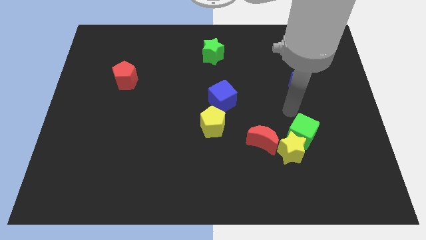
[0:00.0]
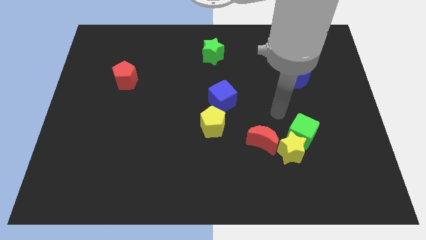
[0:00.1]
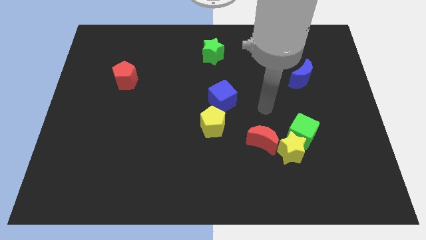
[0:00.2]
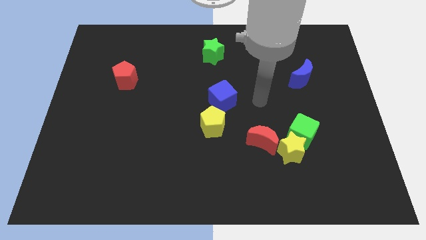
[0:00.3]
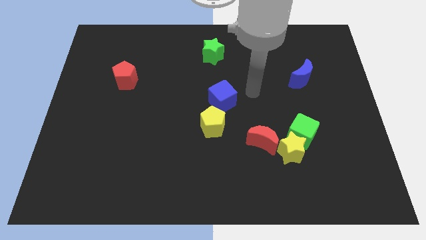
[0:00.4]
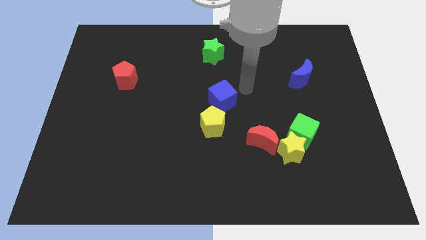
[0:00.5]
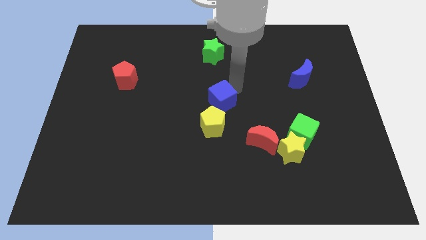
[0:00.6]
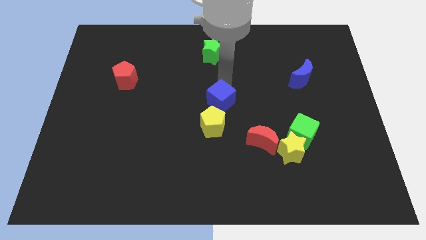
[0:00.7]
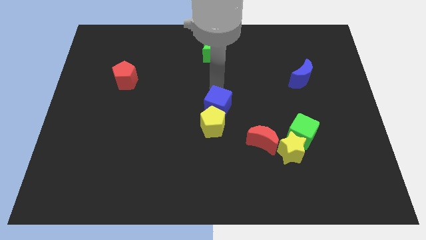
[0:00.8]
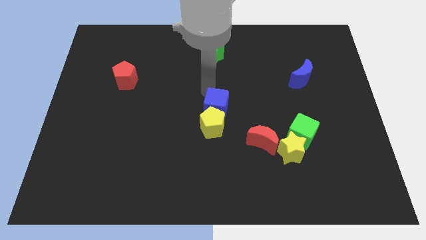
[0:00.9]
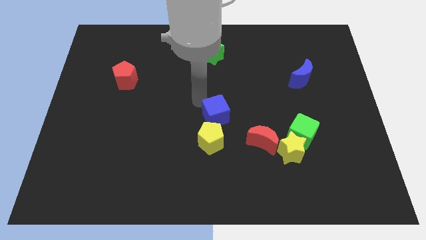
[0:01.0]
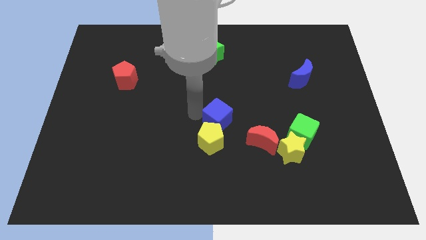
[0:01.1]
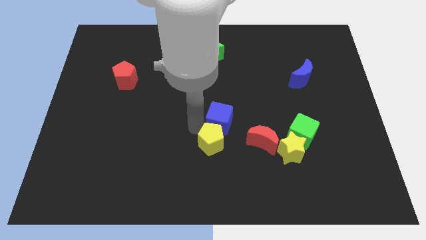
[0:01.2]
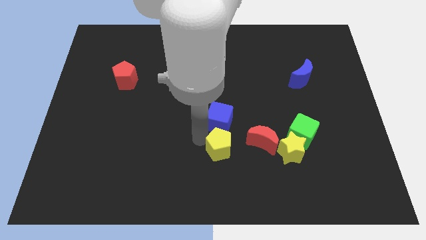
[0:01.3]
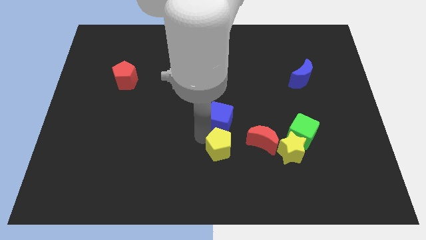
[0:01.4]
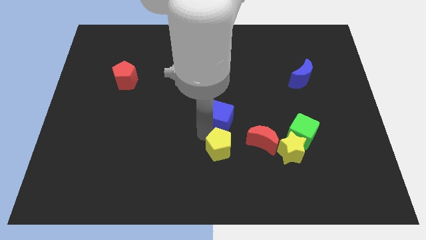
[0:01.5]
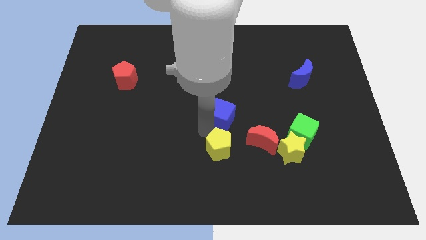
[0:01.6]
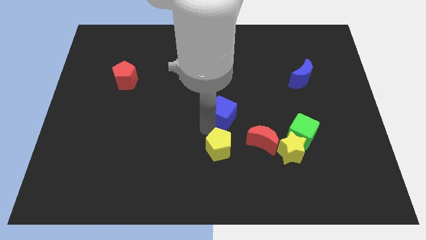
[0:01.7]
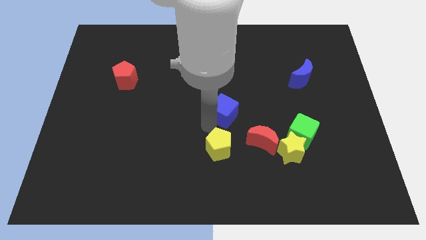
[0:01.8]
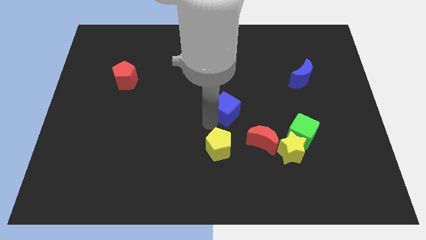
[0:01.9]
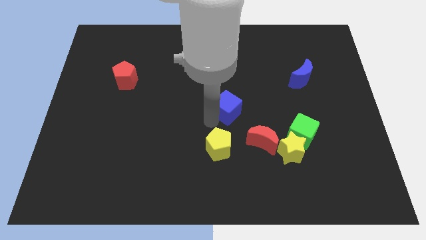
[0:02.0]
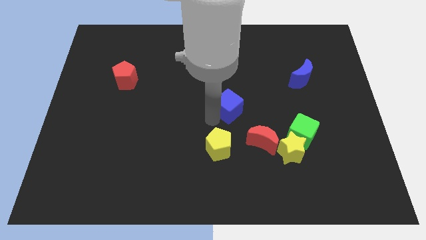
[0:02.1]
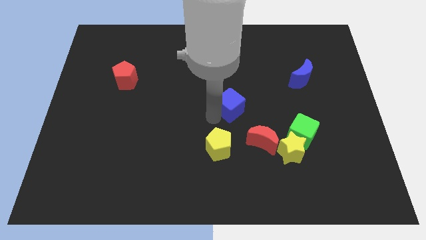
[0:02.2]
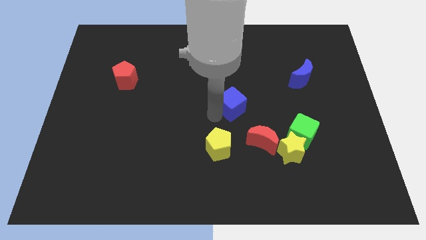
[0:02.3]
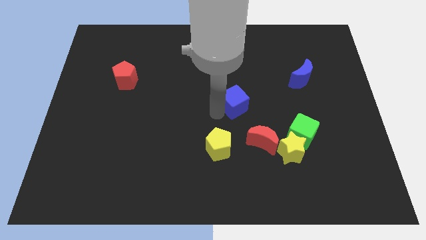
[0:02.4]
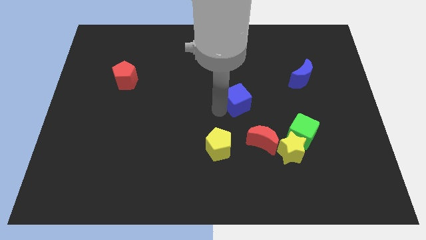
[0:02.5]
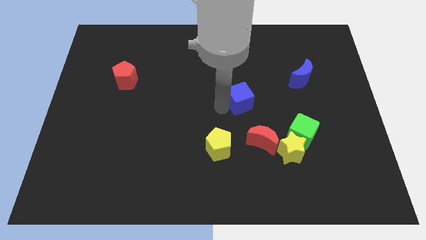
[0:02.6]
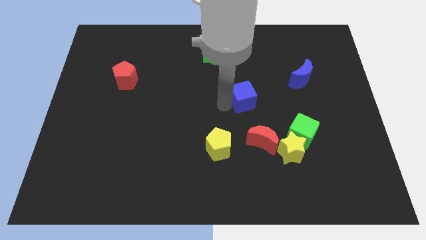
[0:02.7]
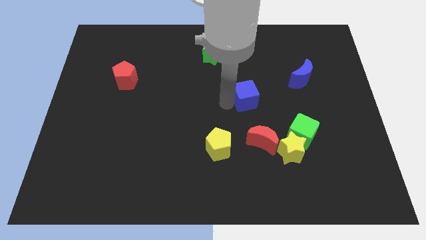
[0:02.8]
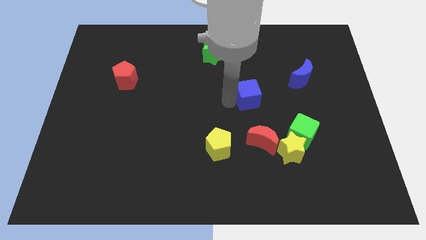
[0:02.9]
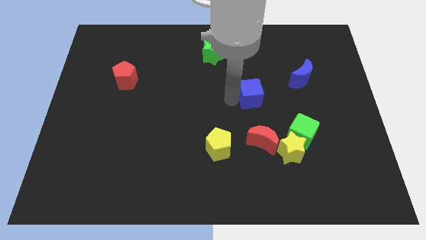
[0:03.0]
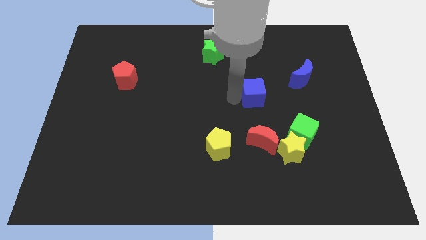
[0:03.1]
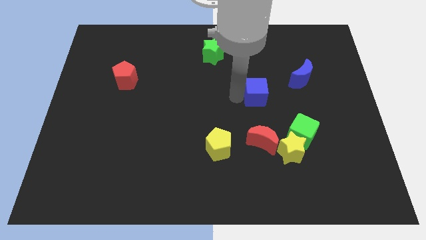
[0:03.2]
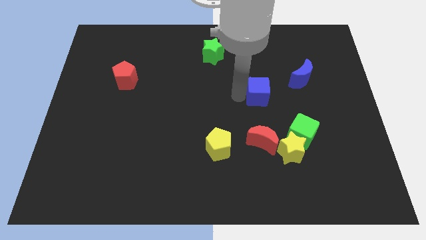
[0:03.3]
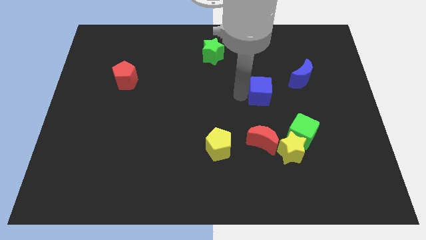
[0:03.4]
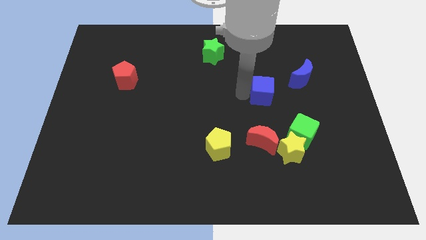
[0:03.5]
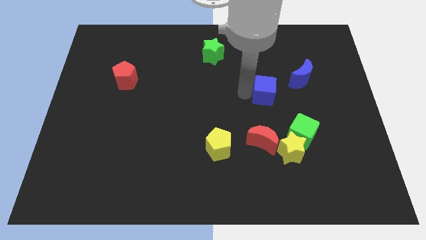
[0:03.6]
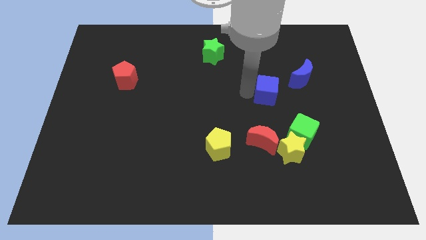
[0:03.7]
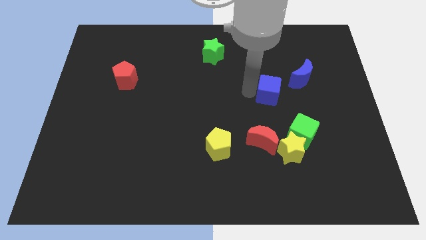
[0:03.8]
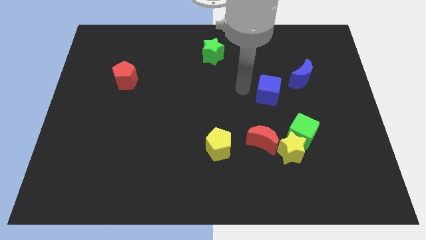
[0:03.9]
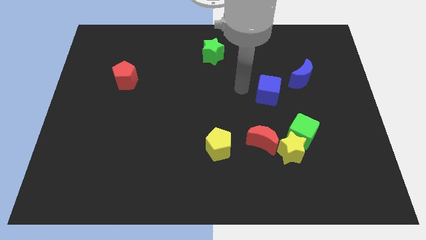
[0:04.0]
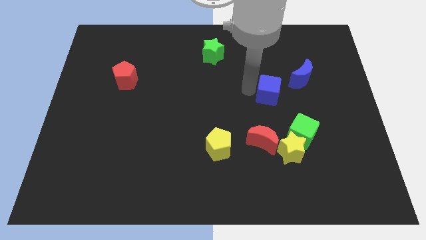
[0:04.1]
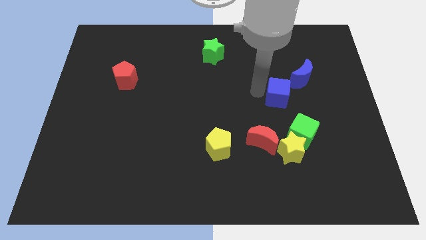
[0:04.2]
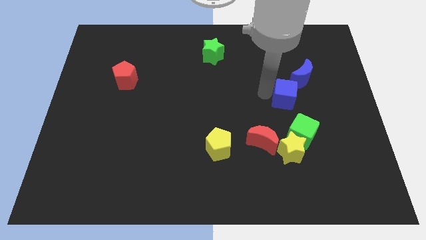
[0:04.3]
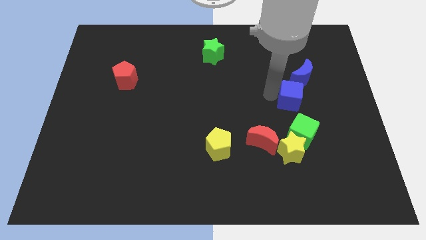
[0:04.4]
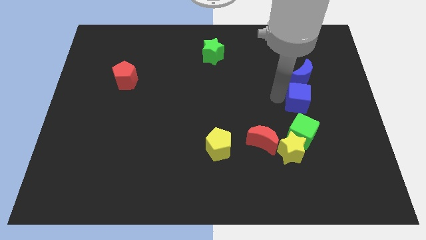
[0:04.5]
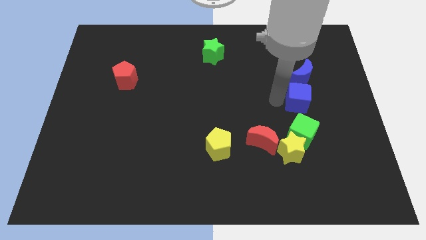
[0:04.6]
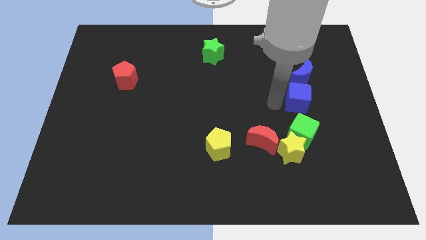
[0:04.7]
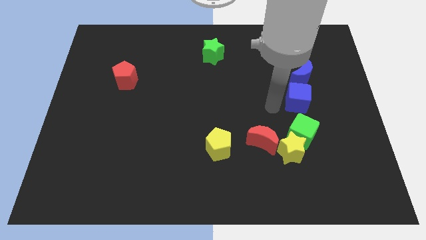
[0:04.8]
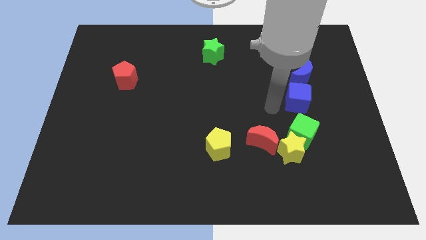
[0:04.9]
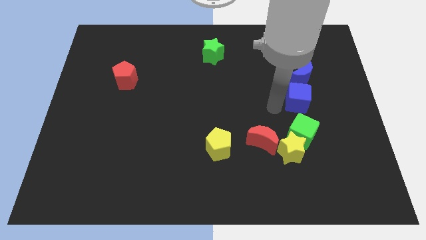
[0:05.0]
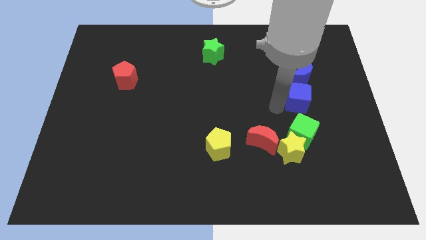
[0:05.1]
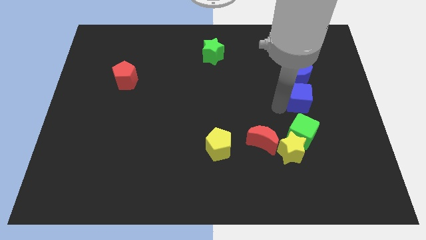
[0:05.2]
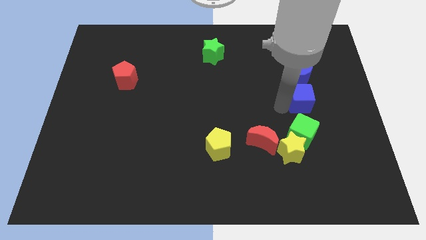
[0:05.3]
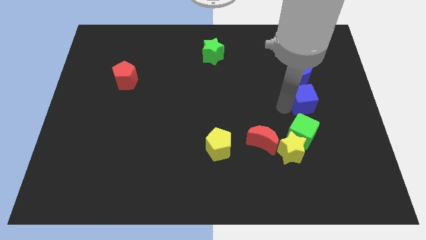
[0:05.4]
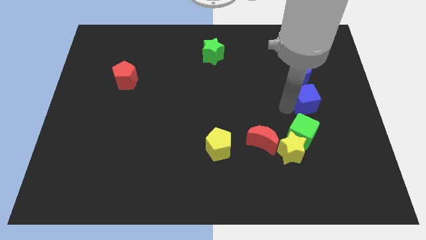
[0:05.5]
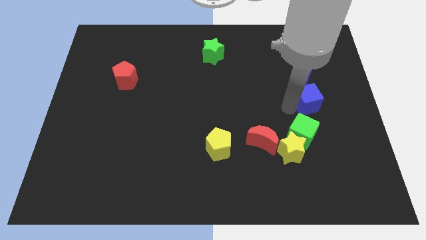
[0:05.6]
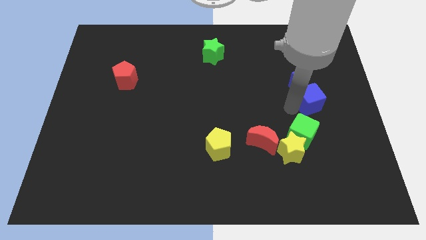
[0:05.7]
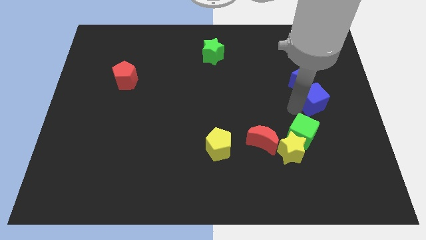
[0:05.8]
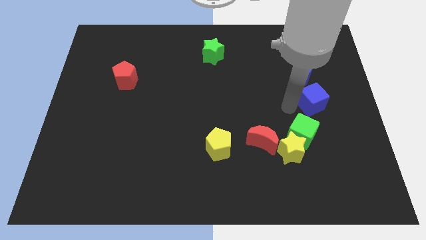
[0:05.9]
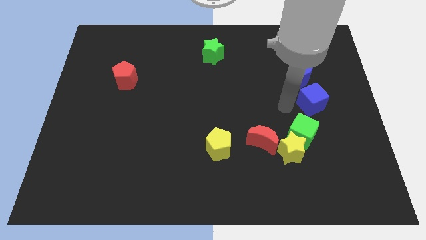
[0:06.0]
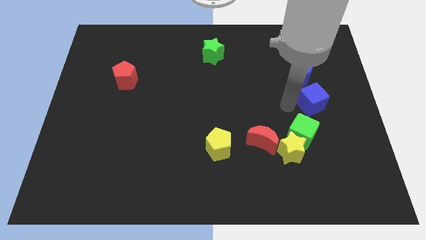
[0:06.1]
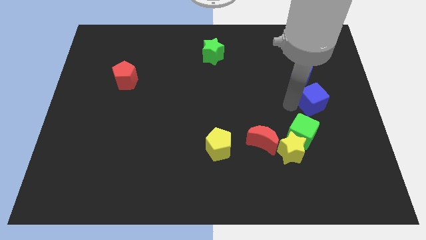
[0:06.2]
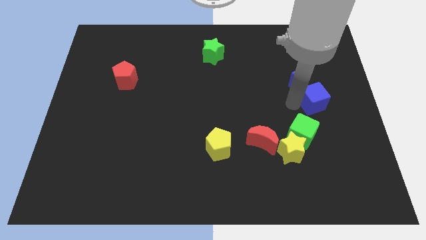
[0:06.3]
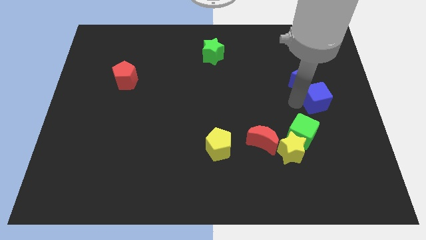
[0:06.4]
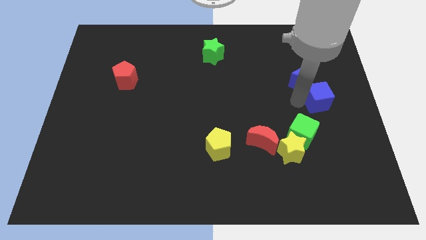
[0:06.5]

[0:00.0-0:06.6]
push the blue cube to the center right
